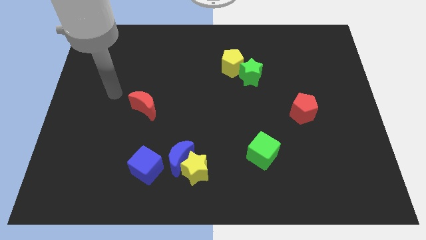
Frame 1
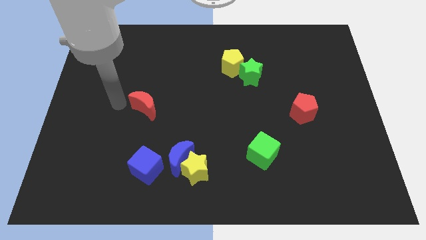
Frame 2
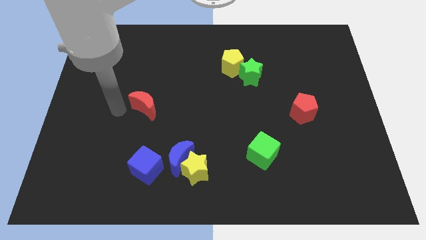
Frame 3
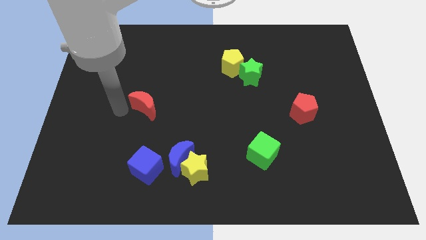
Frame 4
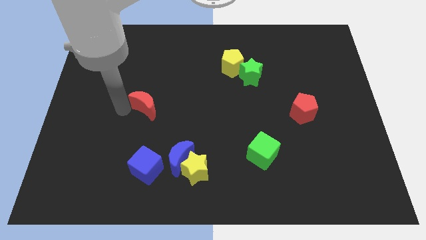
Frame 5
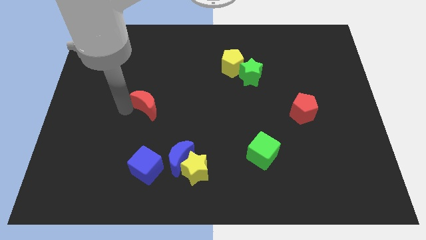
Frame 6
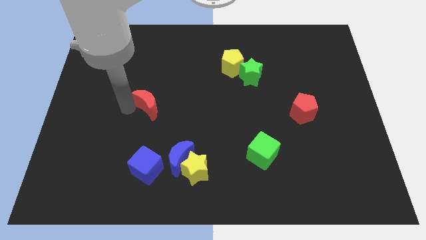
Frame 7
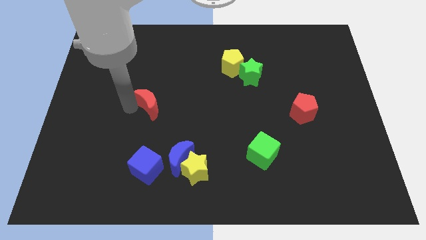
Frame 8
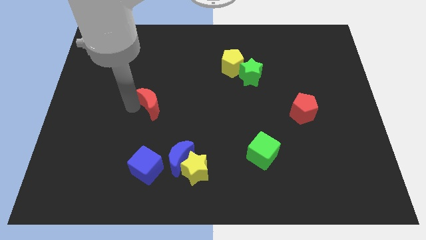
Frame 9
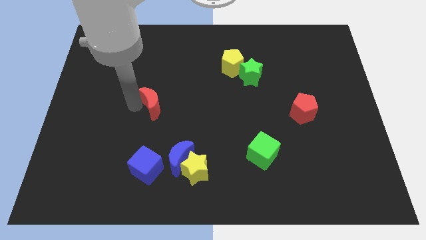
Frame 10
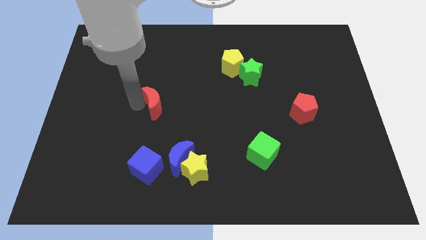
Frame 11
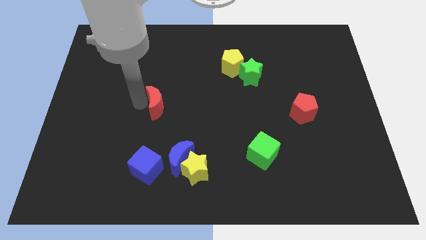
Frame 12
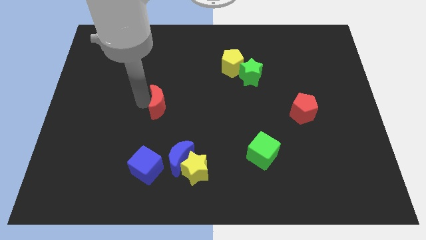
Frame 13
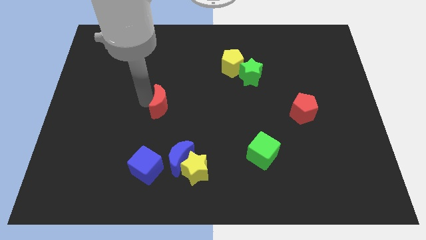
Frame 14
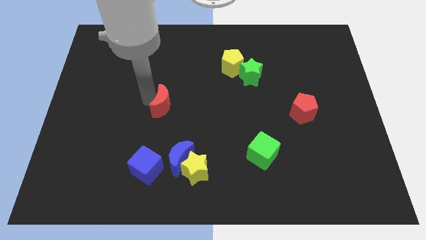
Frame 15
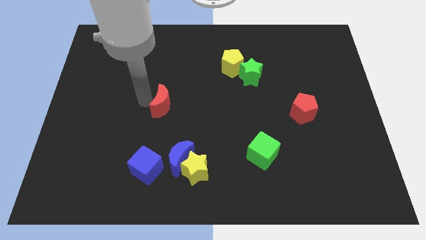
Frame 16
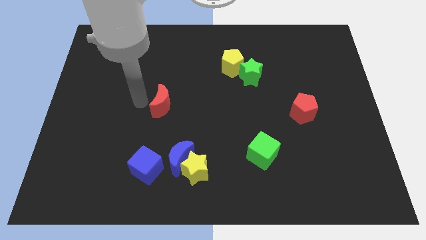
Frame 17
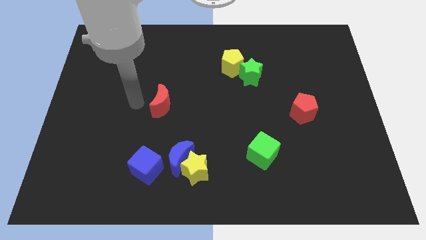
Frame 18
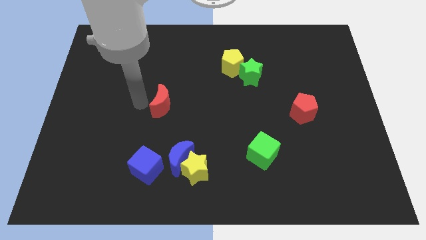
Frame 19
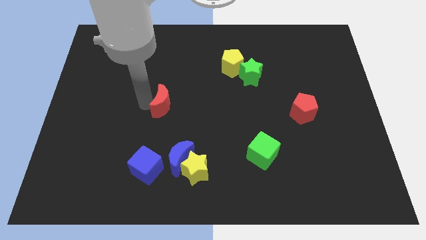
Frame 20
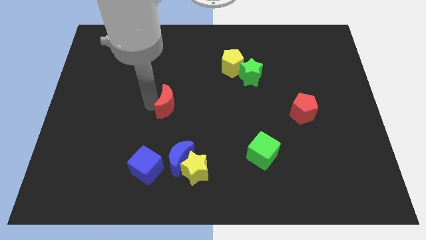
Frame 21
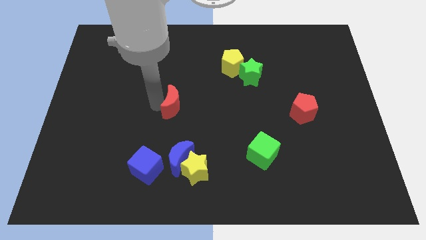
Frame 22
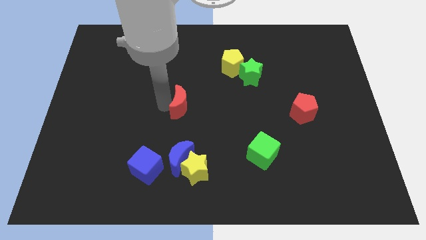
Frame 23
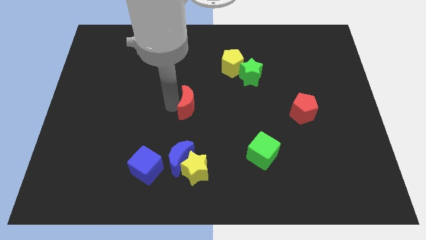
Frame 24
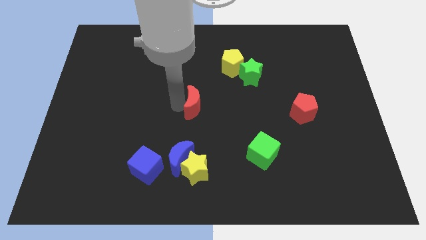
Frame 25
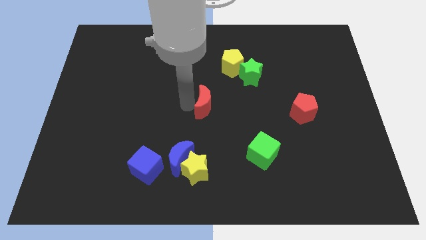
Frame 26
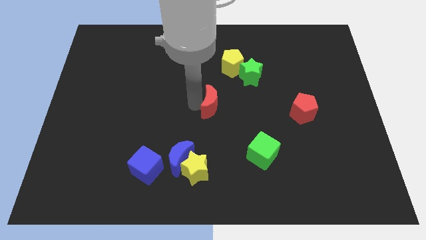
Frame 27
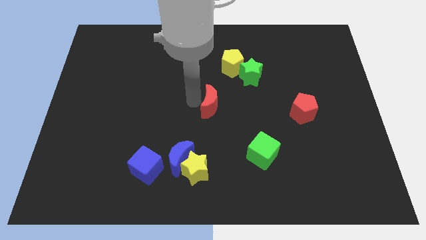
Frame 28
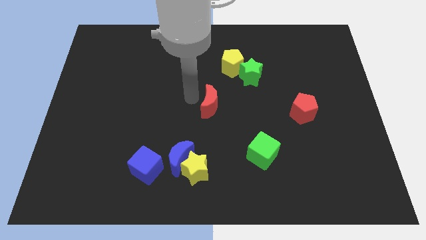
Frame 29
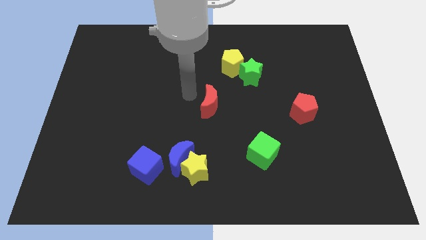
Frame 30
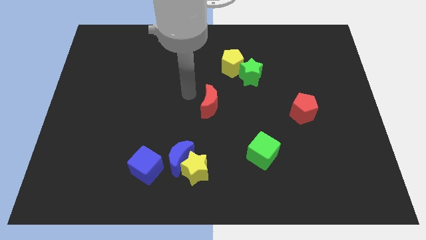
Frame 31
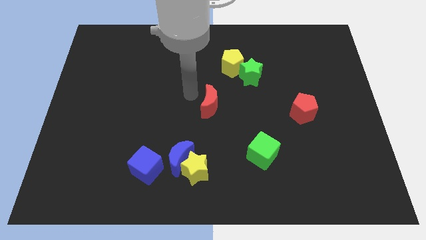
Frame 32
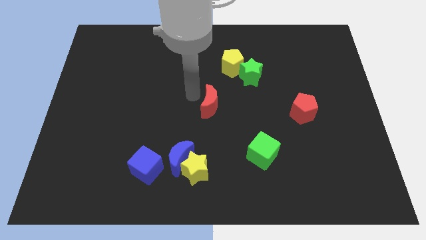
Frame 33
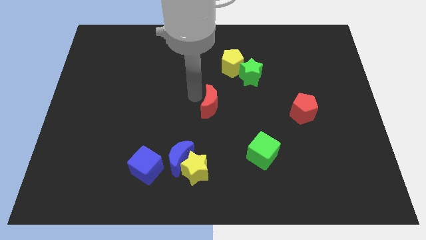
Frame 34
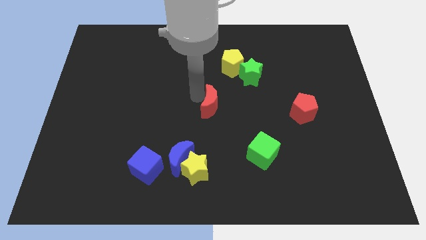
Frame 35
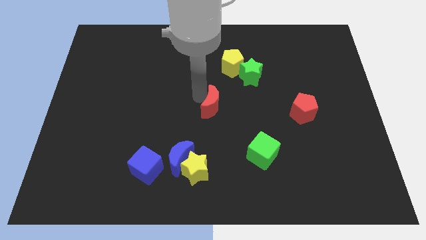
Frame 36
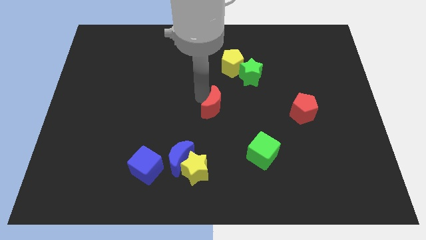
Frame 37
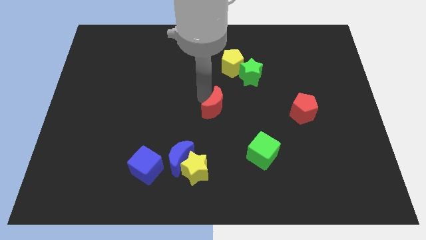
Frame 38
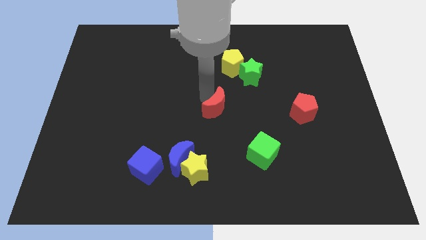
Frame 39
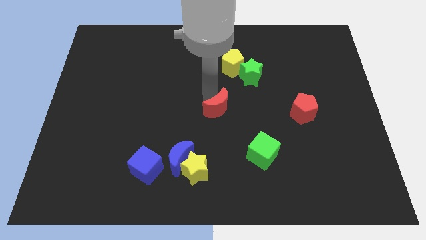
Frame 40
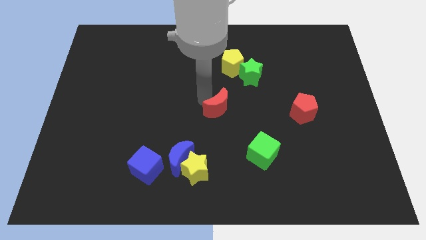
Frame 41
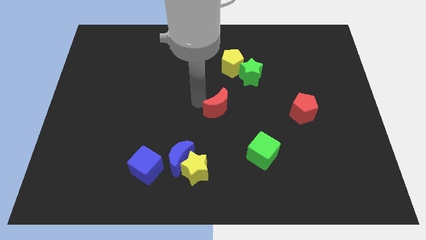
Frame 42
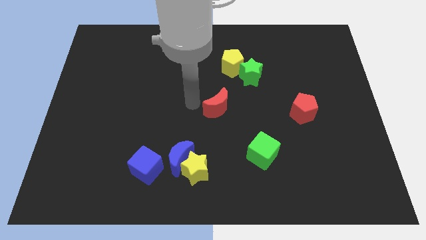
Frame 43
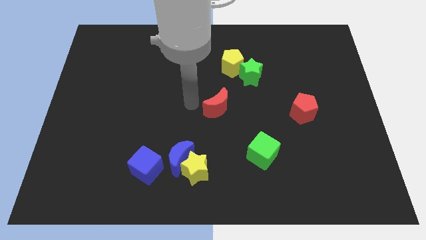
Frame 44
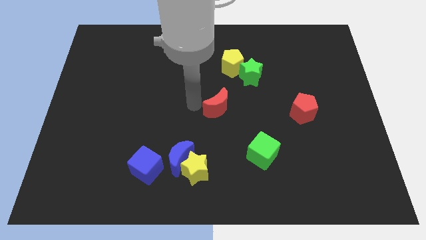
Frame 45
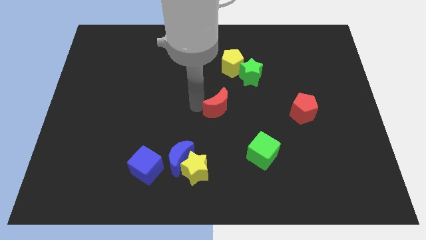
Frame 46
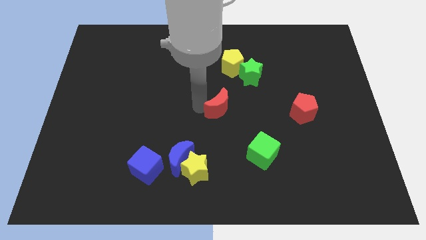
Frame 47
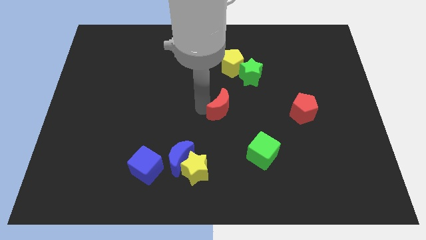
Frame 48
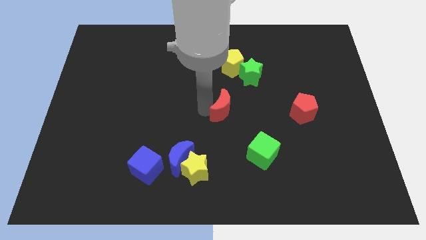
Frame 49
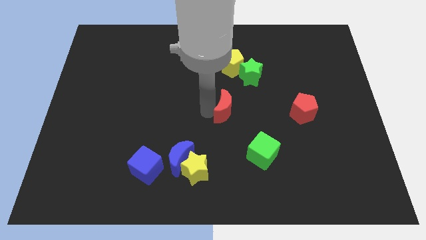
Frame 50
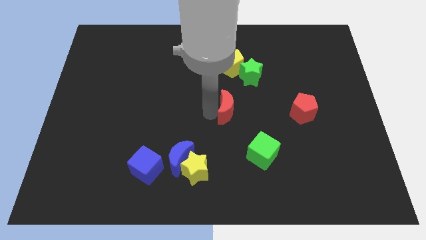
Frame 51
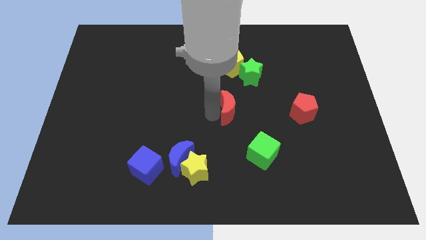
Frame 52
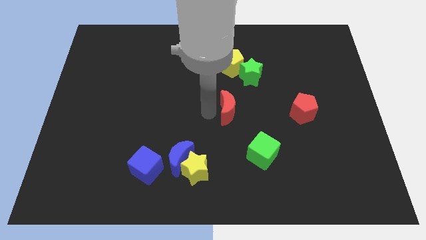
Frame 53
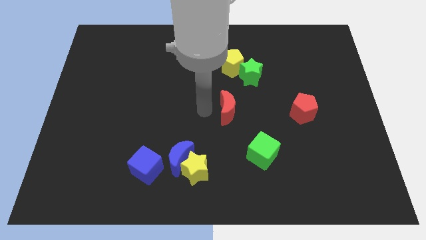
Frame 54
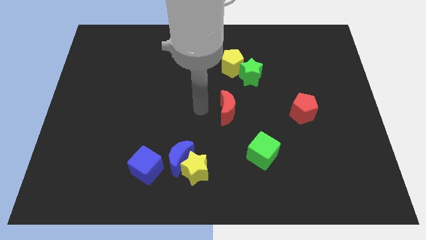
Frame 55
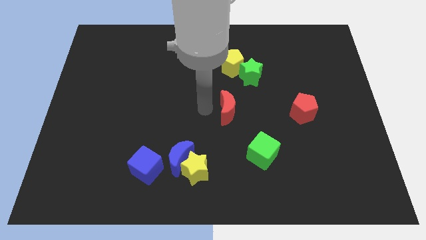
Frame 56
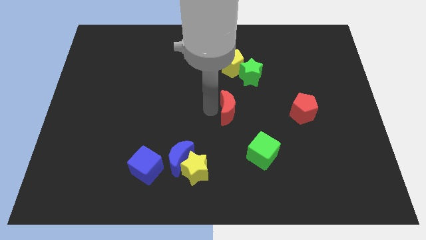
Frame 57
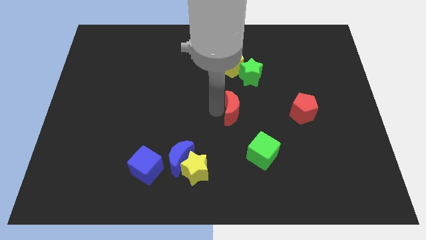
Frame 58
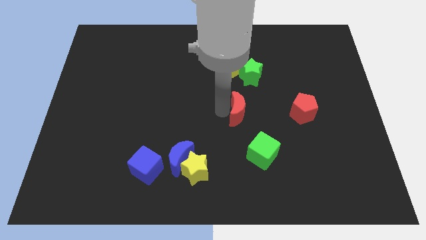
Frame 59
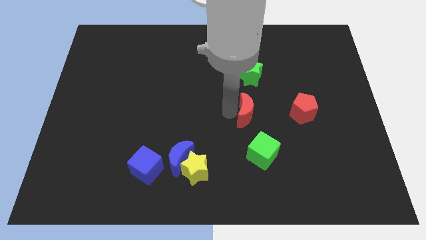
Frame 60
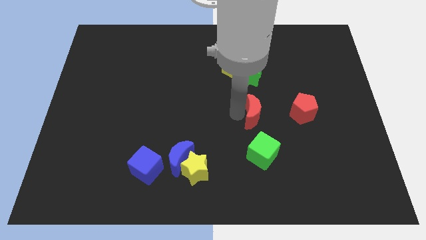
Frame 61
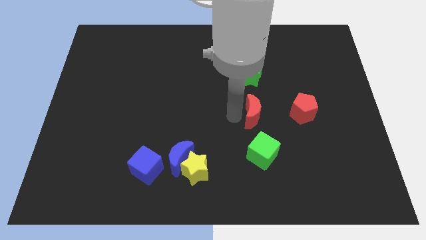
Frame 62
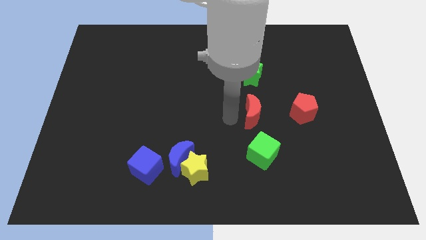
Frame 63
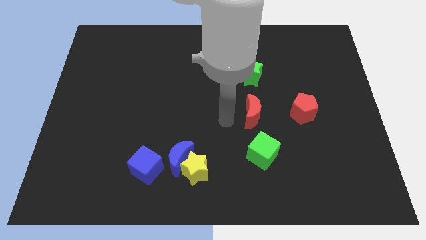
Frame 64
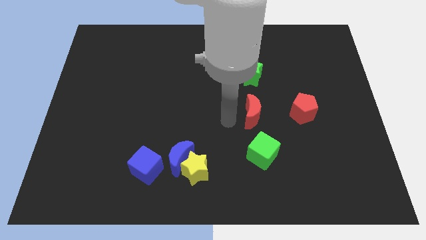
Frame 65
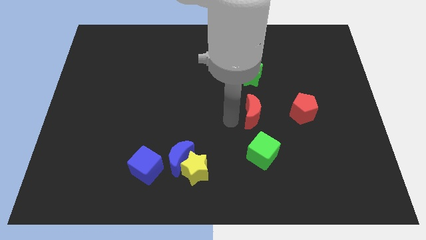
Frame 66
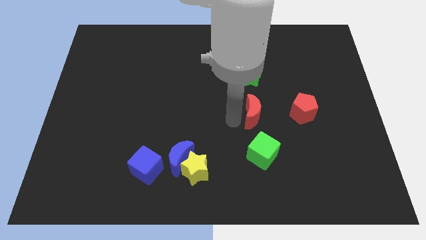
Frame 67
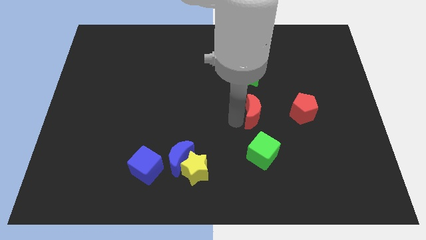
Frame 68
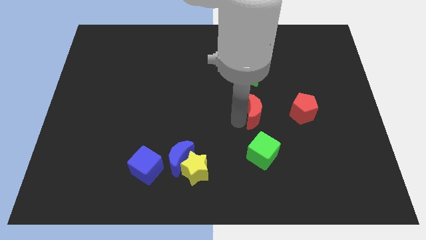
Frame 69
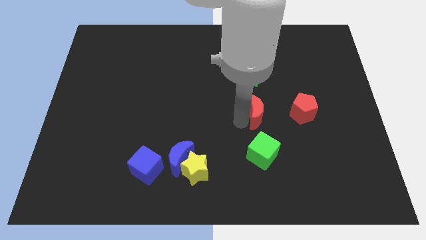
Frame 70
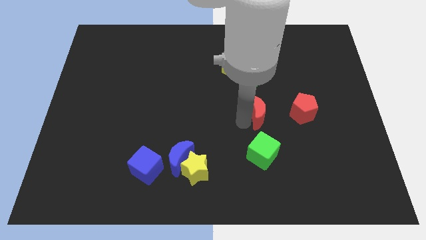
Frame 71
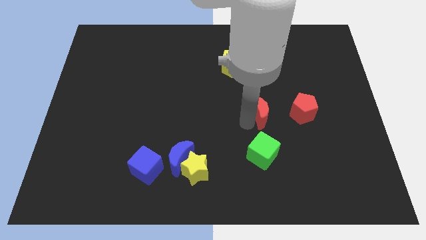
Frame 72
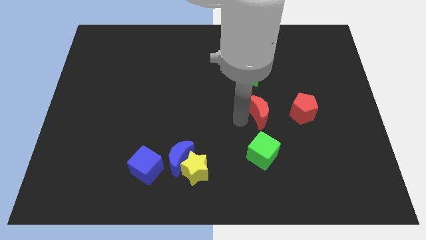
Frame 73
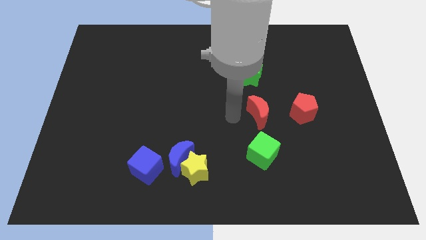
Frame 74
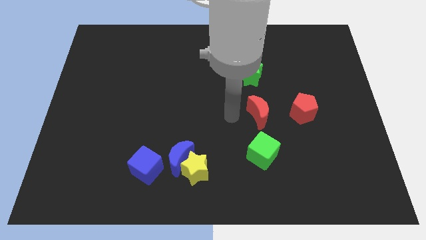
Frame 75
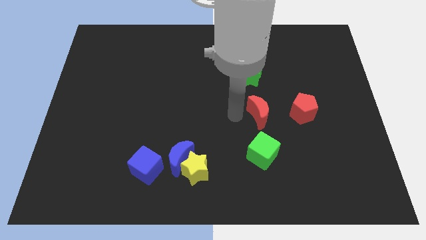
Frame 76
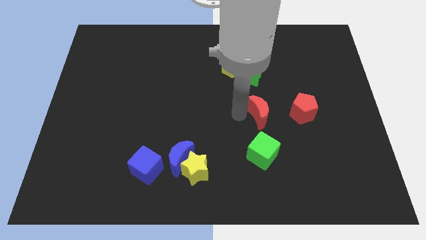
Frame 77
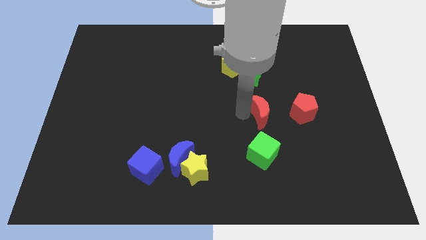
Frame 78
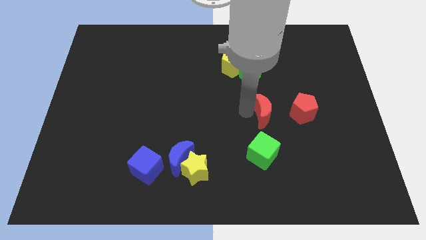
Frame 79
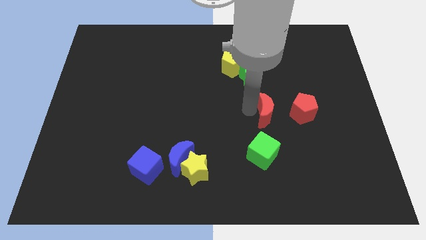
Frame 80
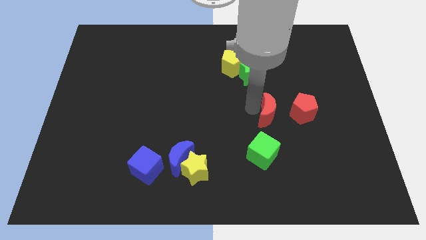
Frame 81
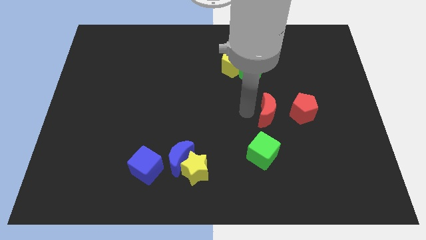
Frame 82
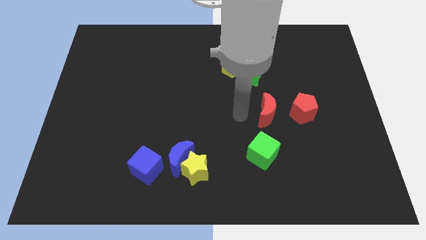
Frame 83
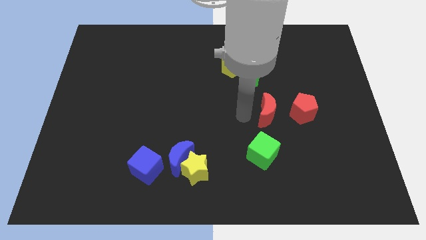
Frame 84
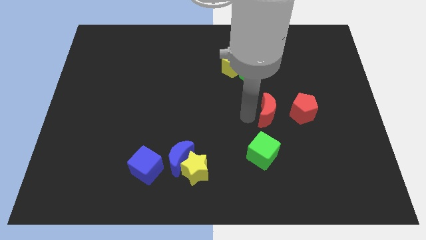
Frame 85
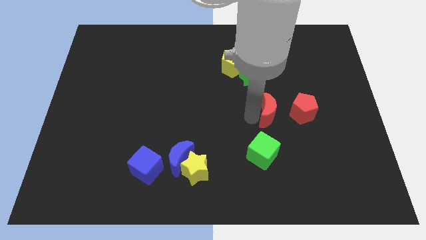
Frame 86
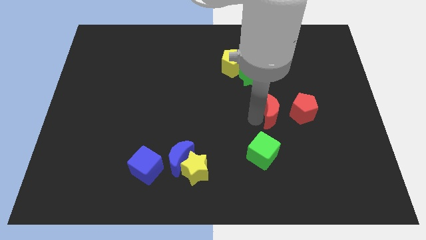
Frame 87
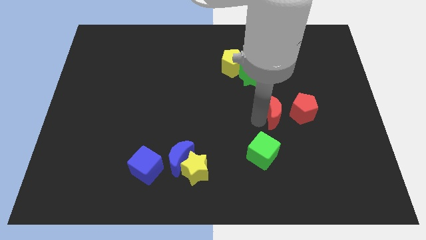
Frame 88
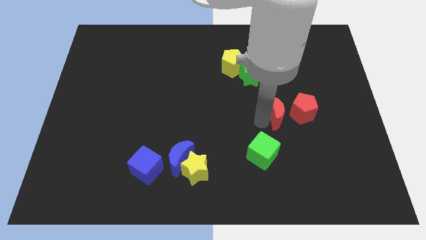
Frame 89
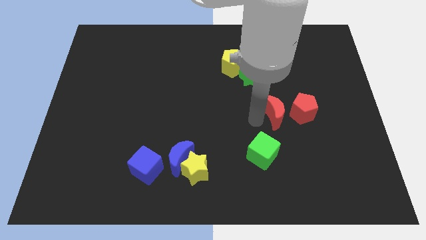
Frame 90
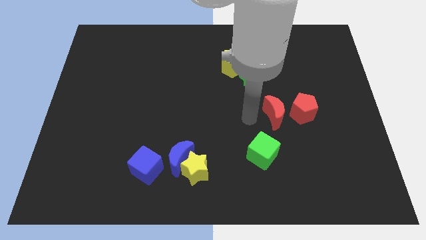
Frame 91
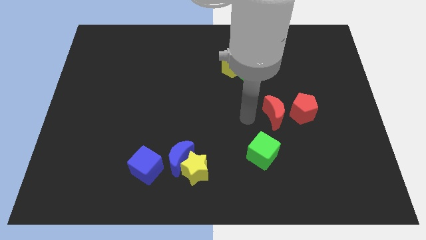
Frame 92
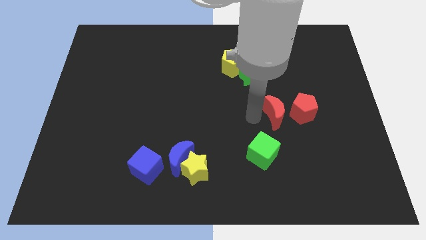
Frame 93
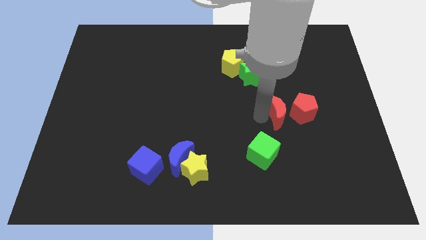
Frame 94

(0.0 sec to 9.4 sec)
push the red moon towards the red pentagon
